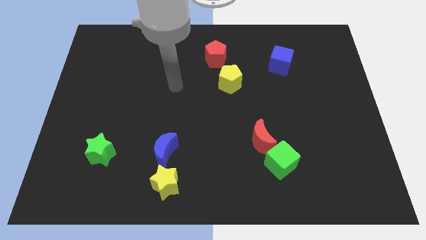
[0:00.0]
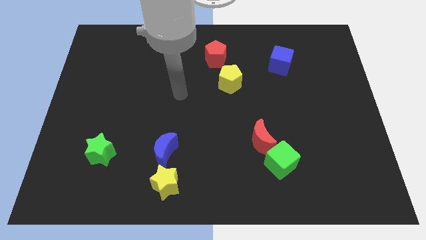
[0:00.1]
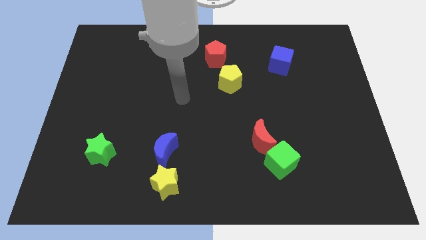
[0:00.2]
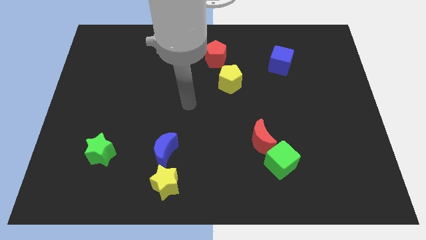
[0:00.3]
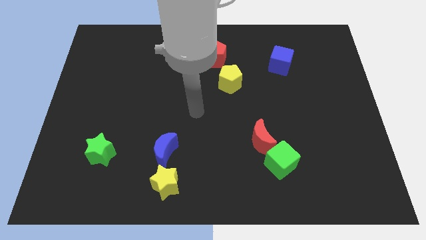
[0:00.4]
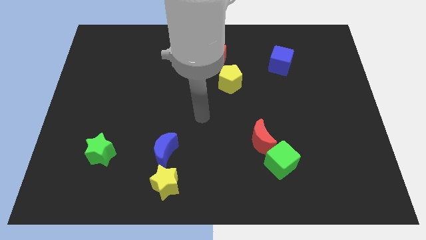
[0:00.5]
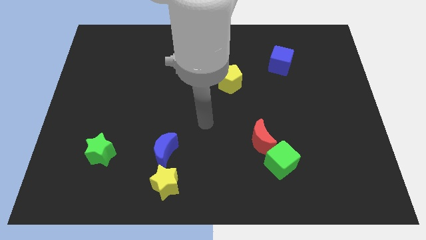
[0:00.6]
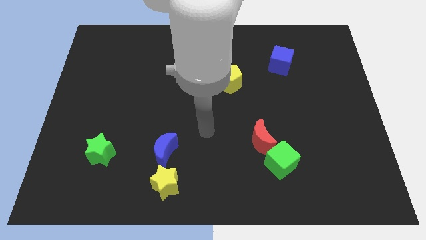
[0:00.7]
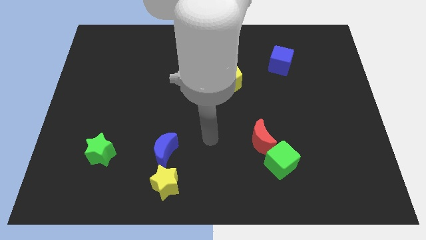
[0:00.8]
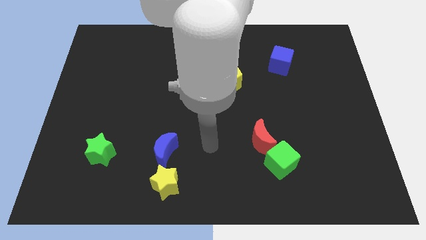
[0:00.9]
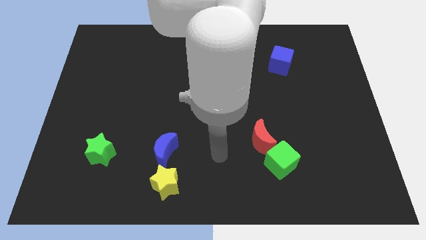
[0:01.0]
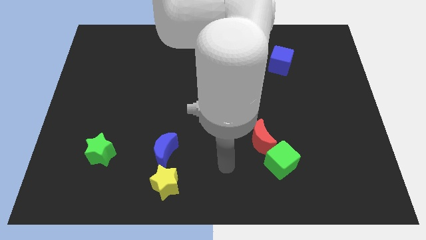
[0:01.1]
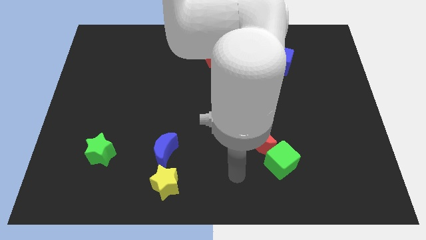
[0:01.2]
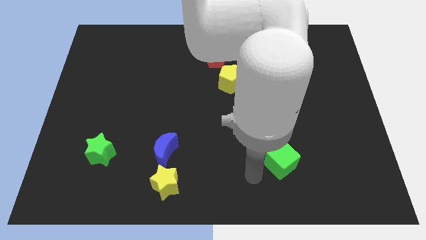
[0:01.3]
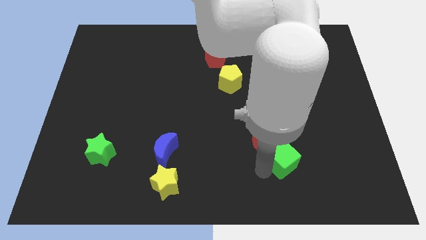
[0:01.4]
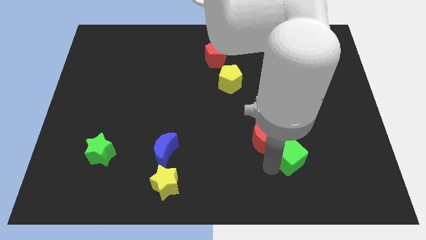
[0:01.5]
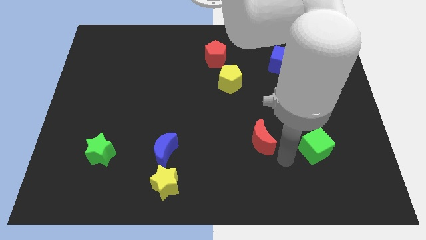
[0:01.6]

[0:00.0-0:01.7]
separate the red moon from the green cube

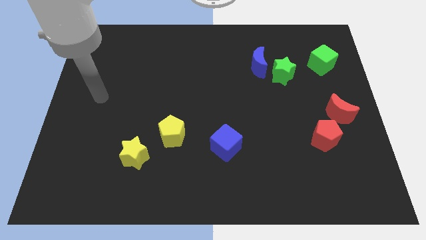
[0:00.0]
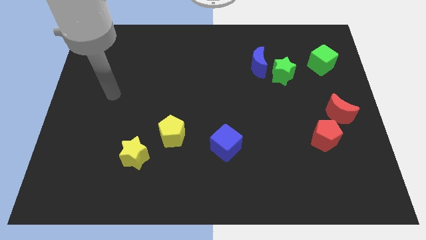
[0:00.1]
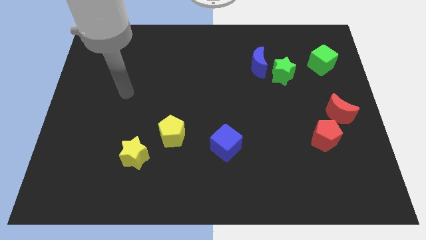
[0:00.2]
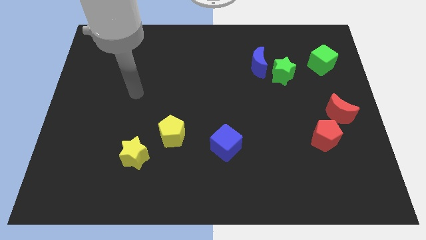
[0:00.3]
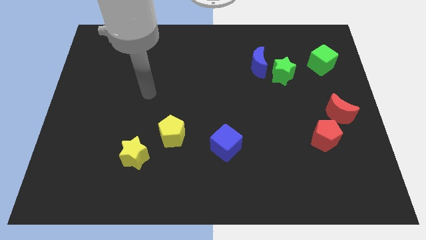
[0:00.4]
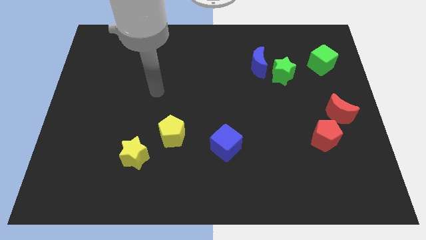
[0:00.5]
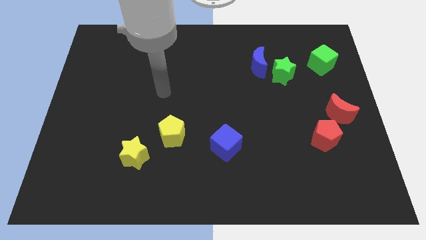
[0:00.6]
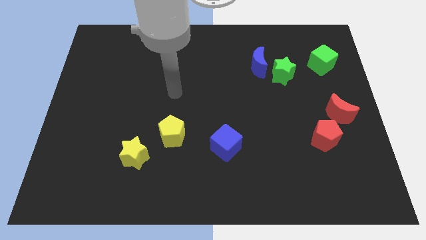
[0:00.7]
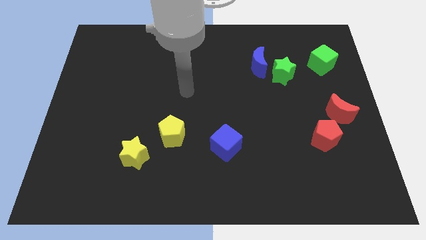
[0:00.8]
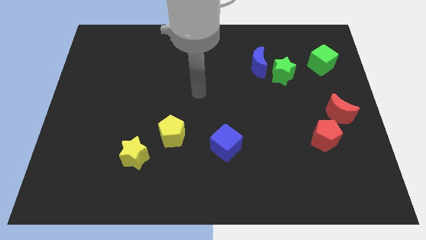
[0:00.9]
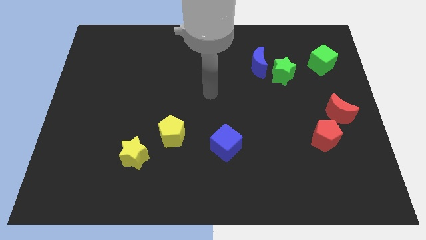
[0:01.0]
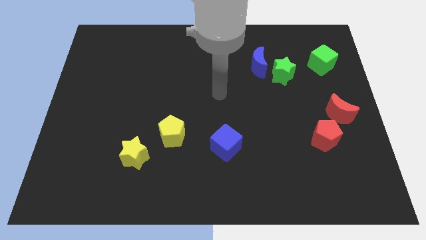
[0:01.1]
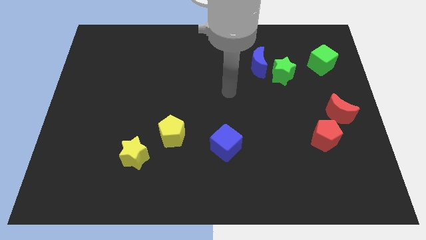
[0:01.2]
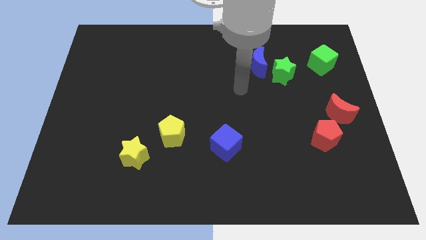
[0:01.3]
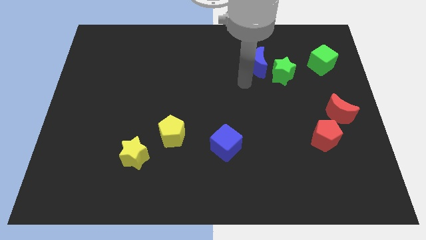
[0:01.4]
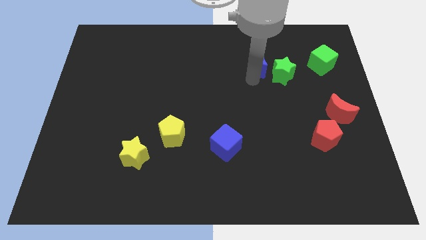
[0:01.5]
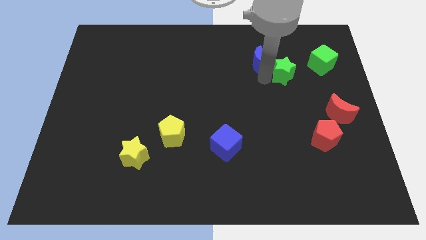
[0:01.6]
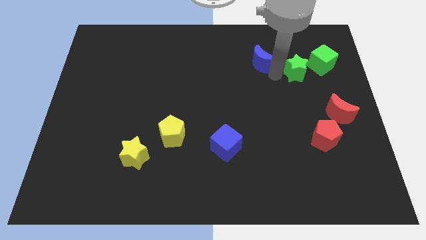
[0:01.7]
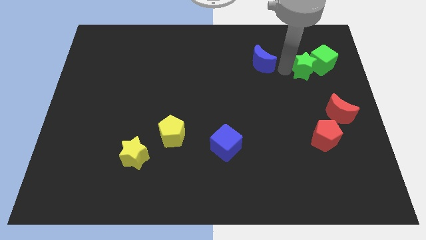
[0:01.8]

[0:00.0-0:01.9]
separate the blue moon from the green star

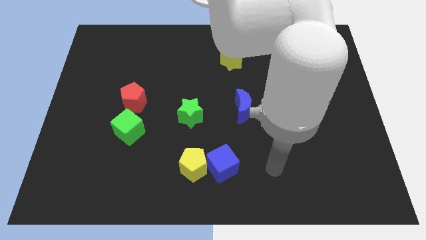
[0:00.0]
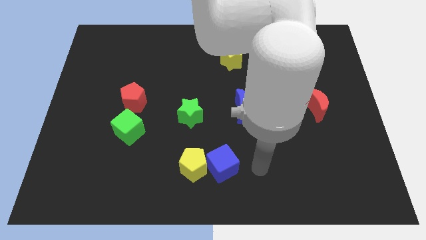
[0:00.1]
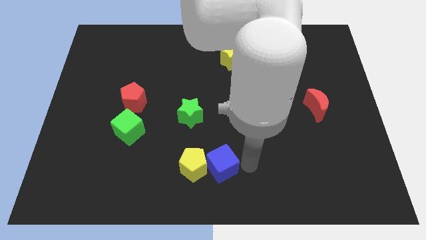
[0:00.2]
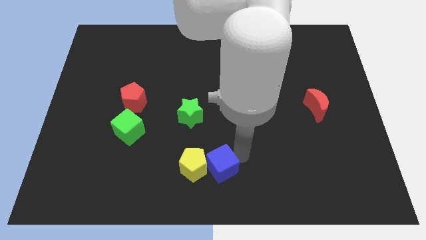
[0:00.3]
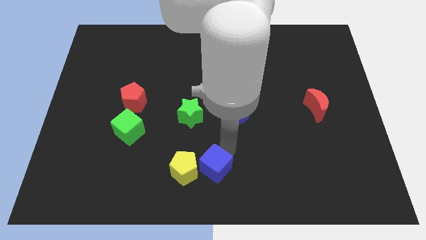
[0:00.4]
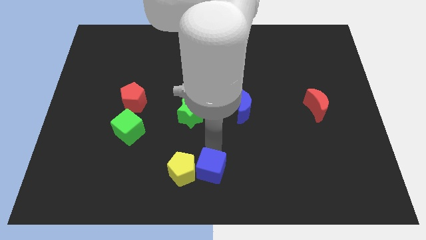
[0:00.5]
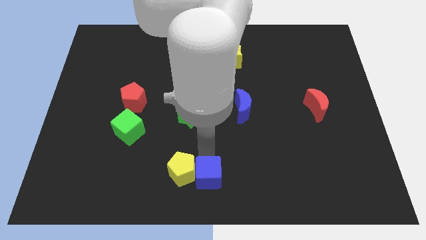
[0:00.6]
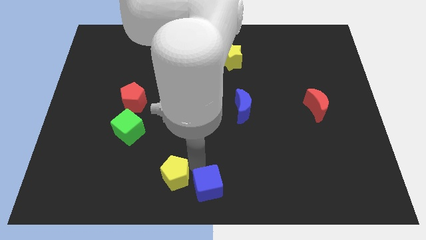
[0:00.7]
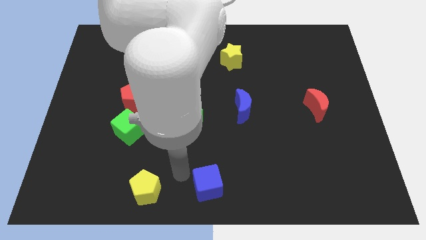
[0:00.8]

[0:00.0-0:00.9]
move the blue cube away from the yellow pentagon

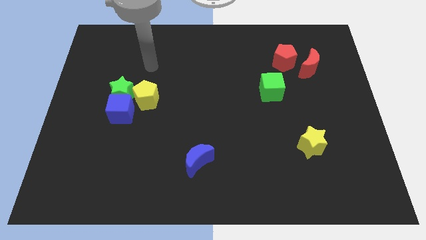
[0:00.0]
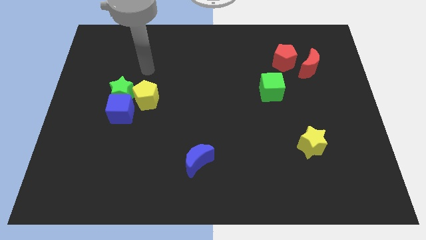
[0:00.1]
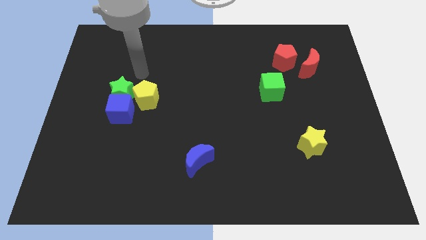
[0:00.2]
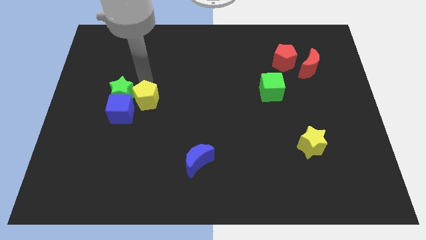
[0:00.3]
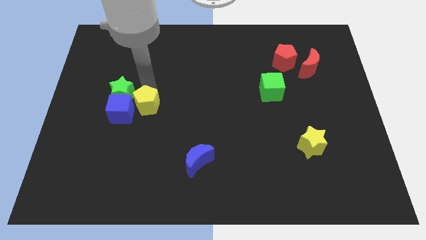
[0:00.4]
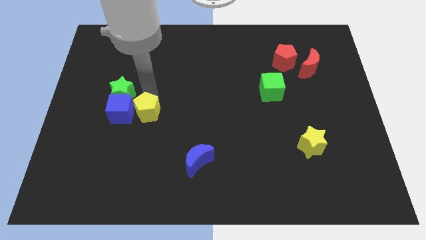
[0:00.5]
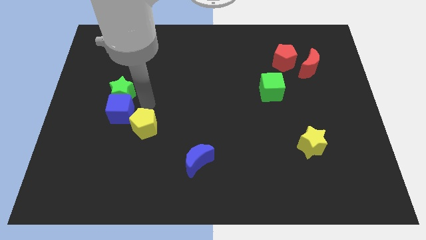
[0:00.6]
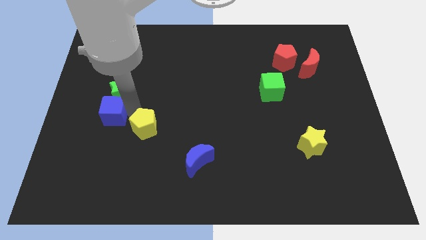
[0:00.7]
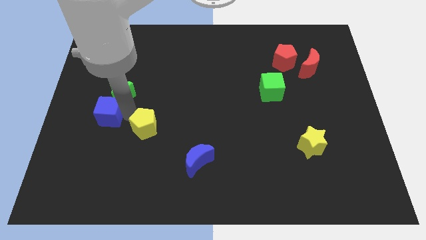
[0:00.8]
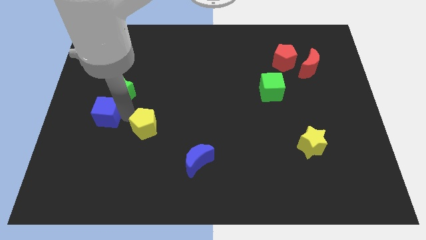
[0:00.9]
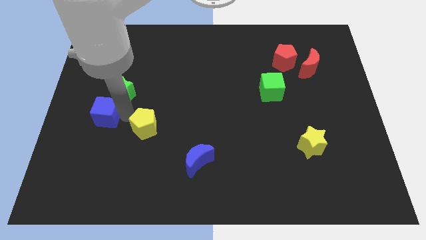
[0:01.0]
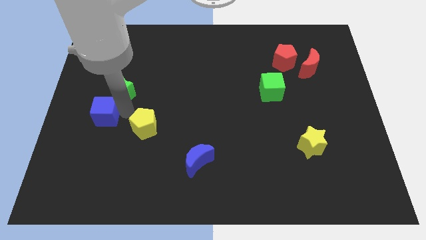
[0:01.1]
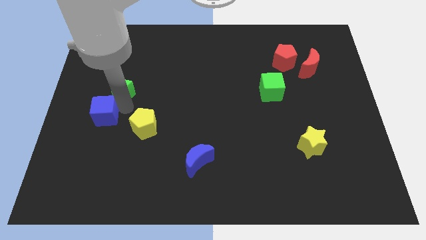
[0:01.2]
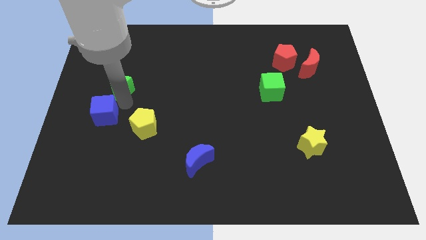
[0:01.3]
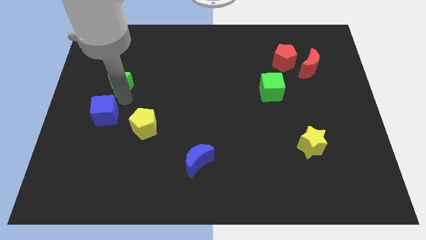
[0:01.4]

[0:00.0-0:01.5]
move the green star away from the blue cube and yellow pentagon

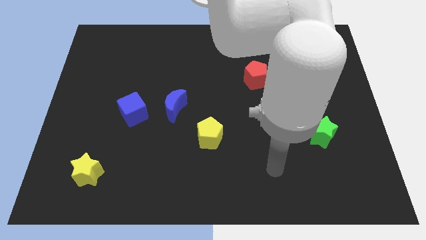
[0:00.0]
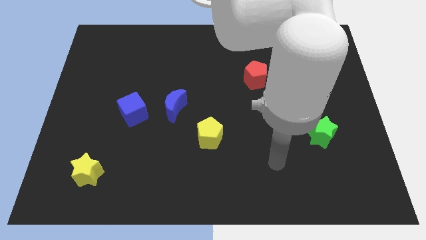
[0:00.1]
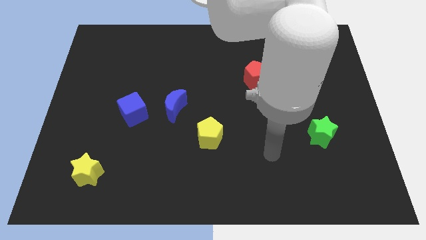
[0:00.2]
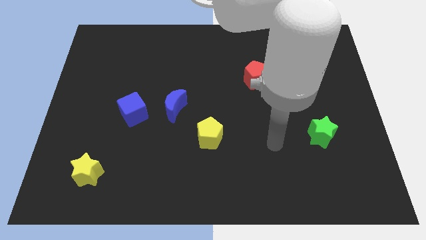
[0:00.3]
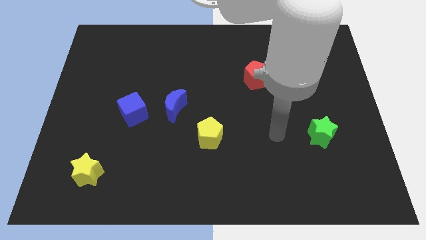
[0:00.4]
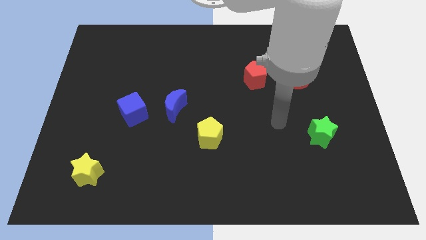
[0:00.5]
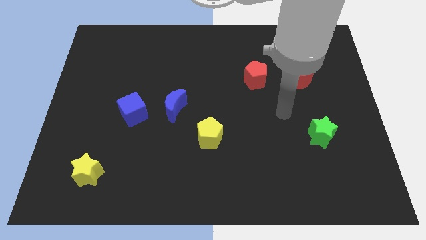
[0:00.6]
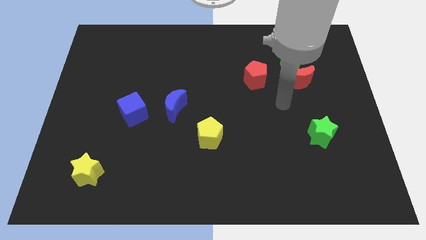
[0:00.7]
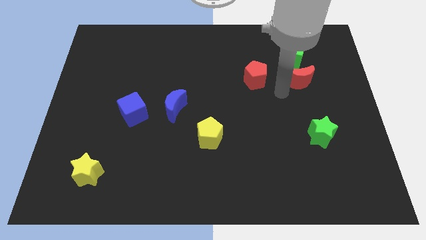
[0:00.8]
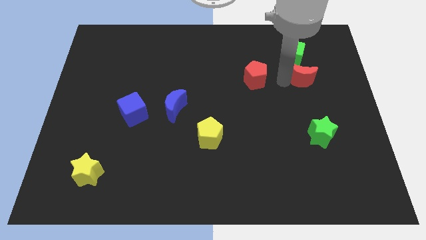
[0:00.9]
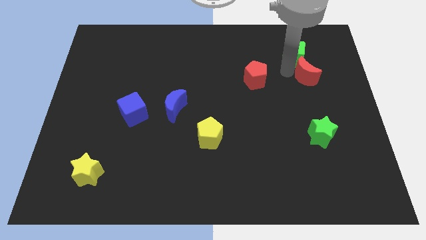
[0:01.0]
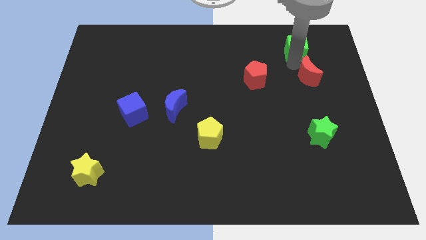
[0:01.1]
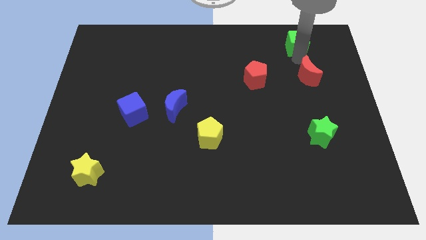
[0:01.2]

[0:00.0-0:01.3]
move the red moon away from the green cube

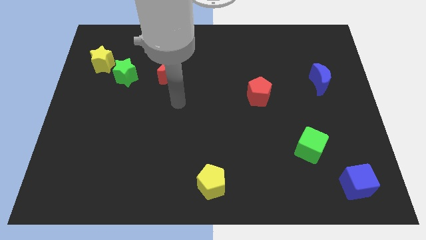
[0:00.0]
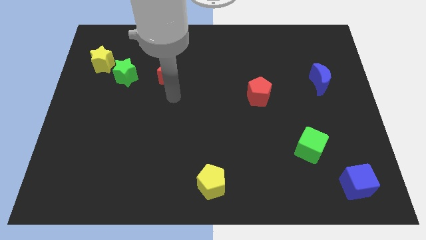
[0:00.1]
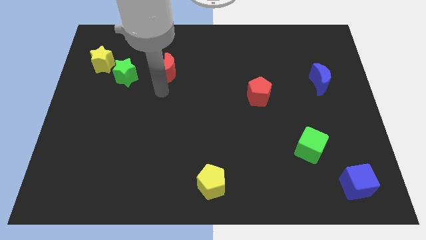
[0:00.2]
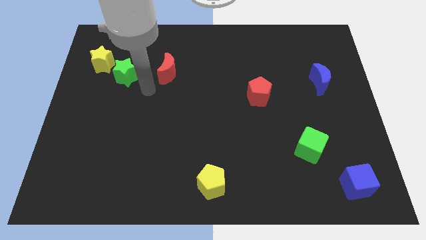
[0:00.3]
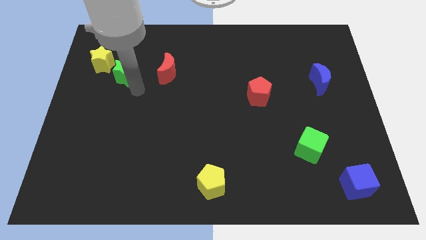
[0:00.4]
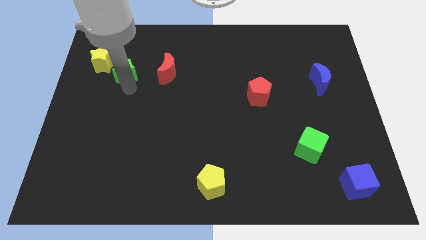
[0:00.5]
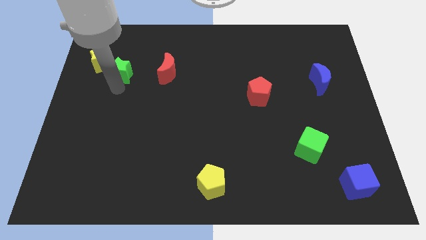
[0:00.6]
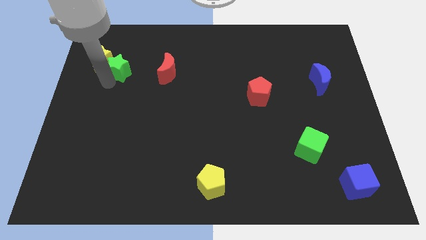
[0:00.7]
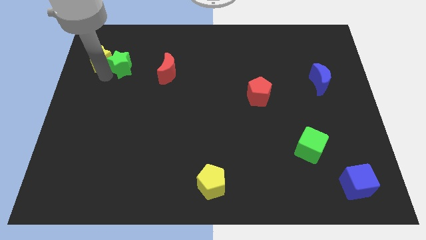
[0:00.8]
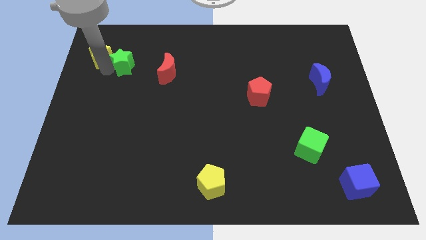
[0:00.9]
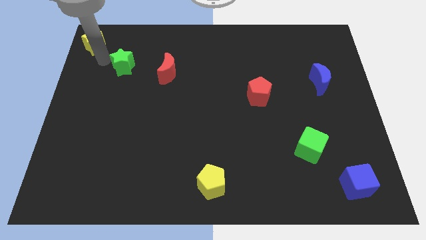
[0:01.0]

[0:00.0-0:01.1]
move the green star away from the yellow star

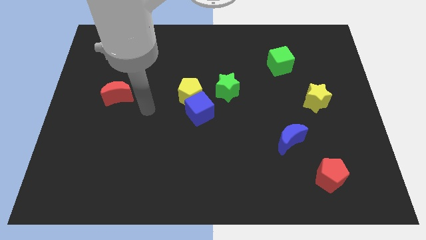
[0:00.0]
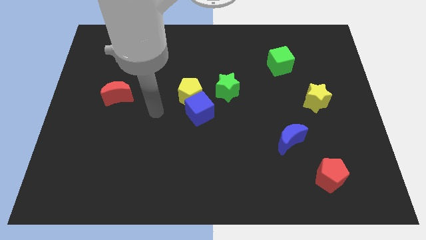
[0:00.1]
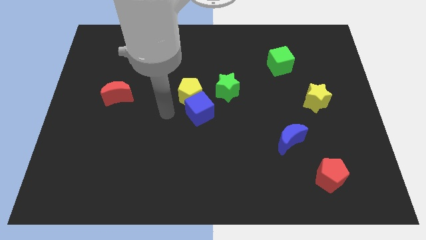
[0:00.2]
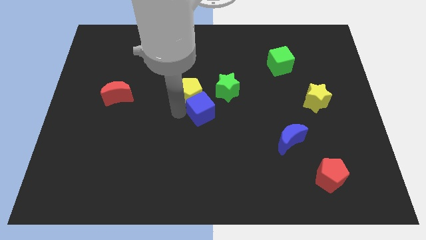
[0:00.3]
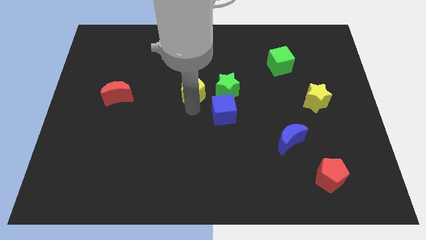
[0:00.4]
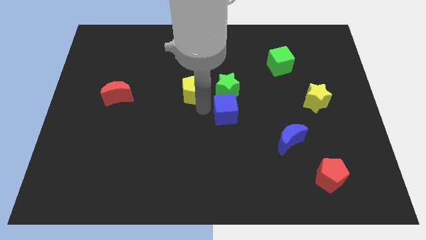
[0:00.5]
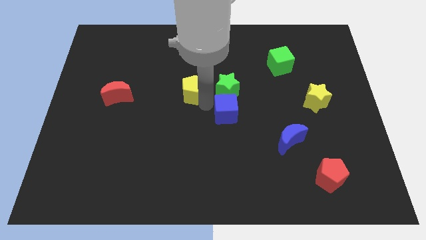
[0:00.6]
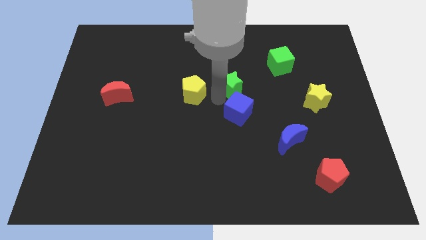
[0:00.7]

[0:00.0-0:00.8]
separate the yellow pentagon from the blue cube and green star
